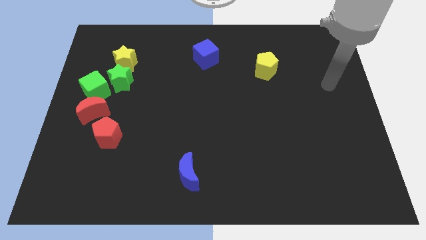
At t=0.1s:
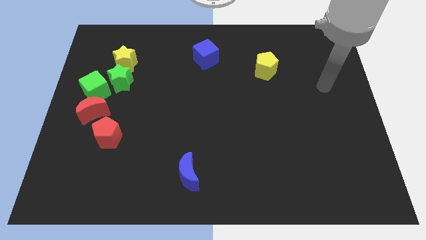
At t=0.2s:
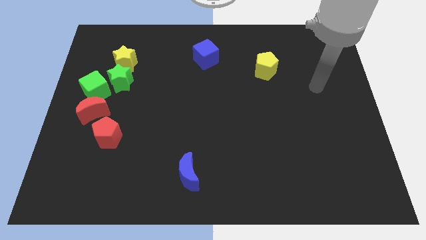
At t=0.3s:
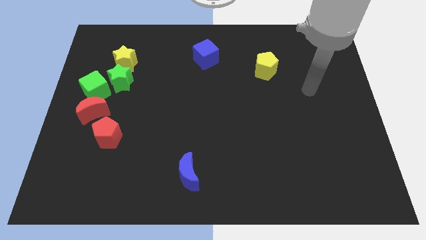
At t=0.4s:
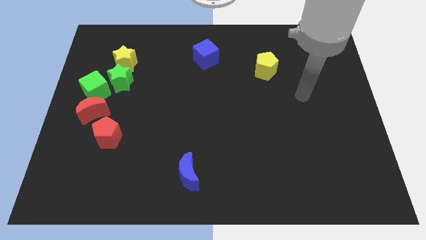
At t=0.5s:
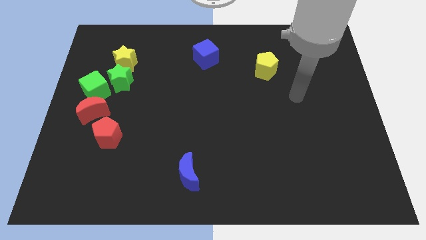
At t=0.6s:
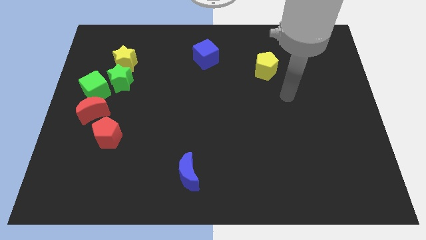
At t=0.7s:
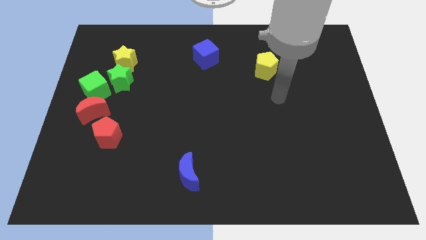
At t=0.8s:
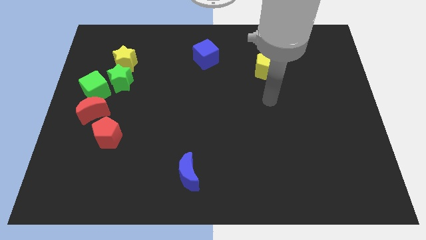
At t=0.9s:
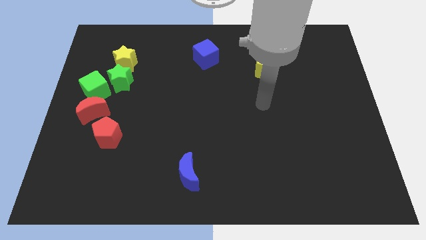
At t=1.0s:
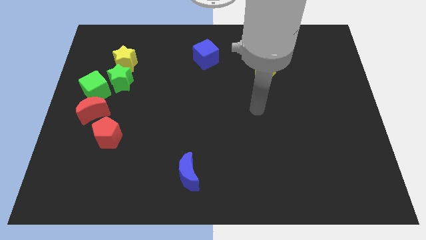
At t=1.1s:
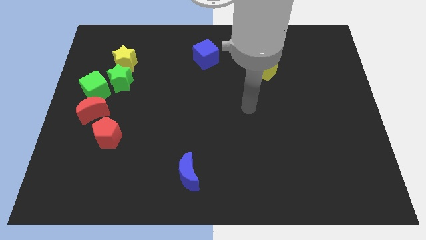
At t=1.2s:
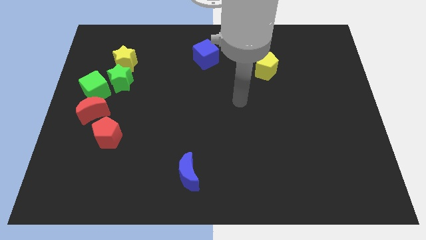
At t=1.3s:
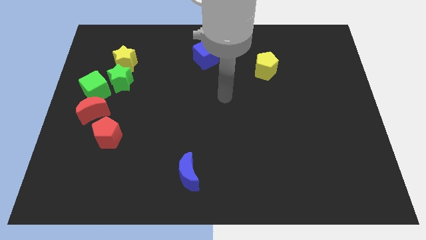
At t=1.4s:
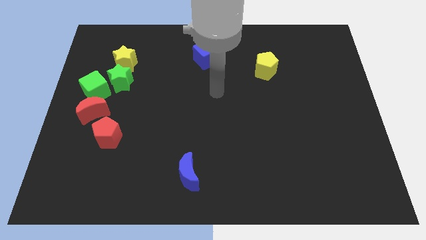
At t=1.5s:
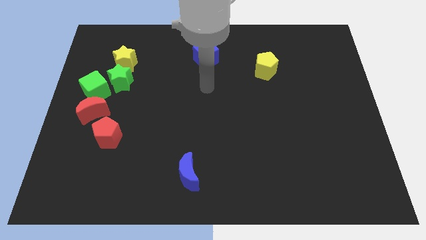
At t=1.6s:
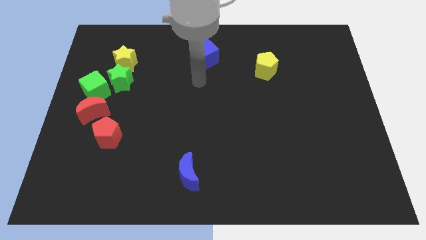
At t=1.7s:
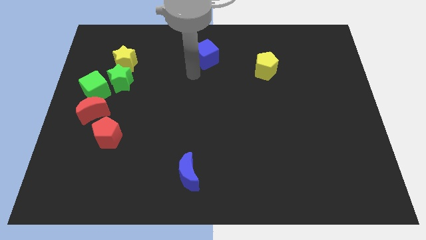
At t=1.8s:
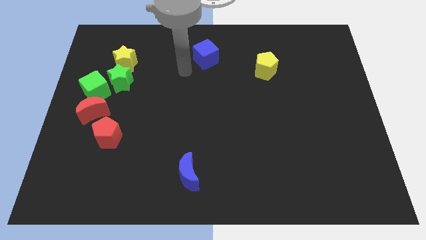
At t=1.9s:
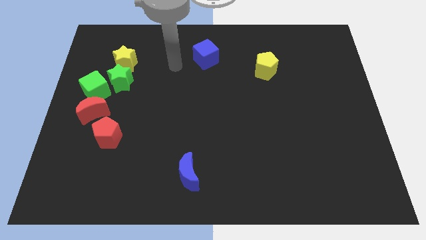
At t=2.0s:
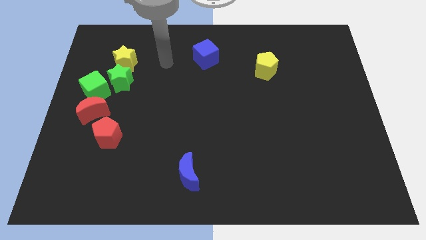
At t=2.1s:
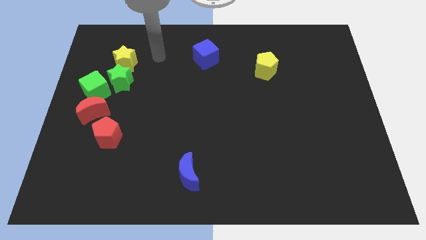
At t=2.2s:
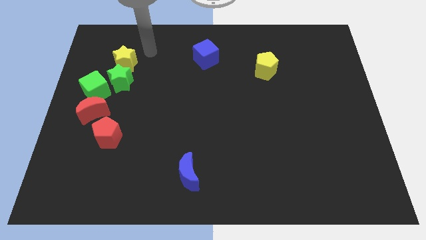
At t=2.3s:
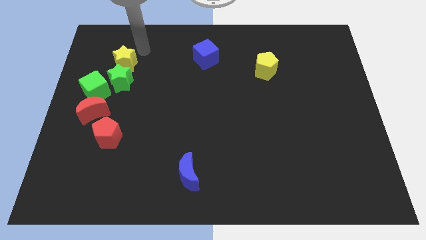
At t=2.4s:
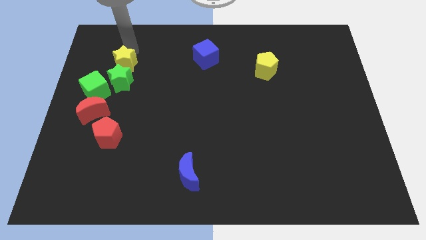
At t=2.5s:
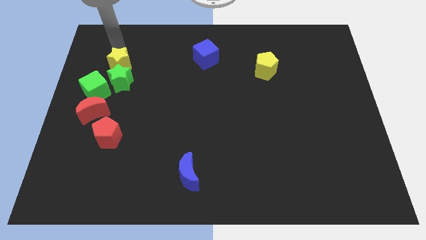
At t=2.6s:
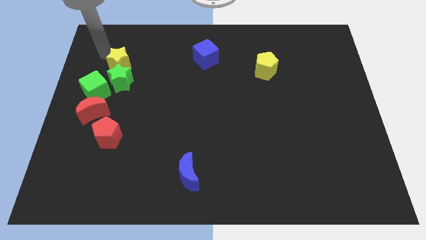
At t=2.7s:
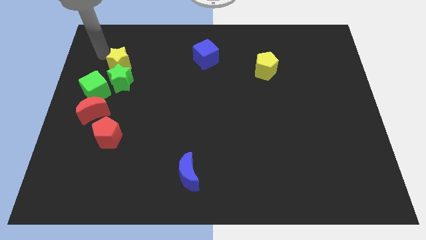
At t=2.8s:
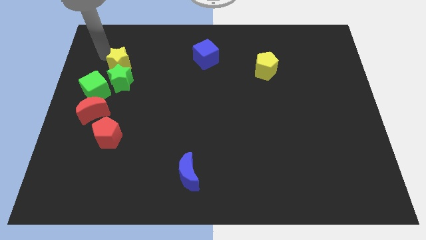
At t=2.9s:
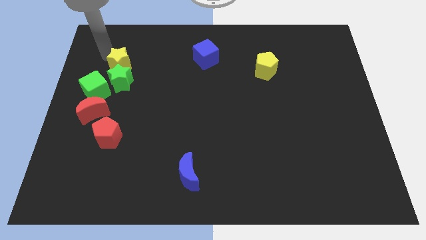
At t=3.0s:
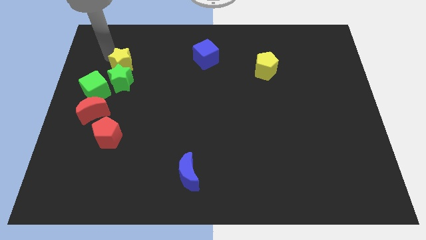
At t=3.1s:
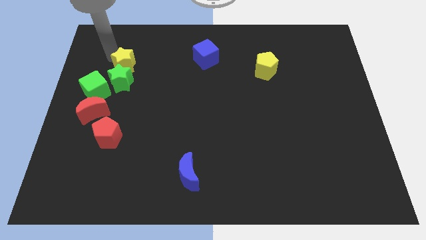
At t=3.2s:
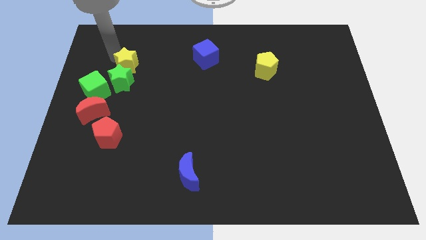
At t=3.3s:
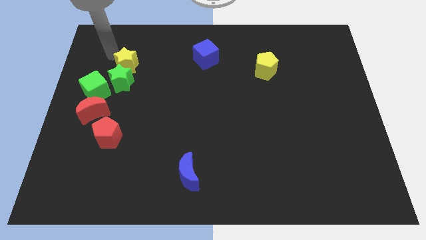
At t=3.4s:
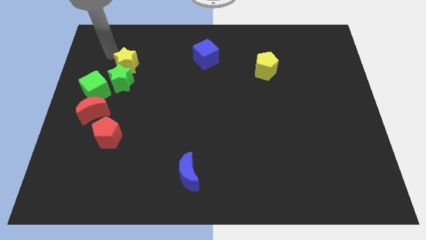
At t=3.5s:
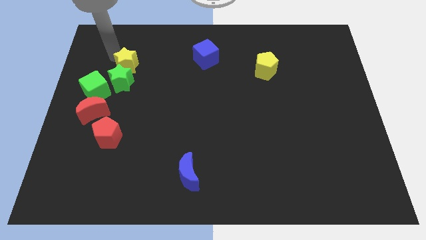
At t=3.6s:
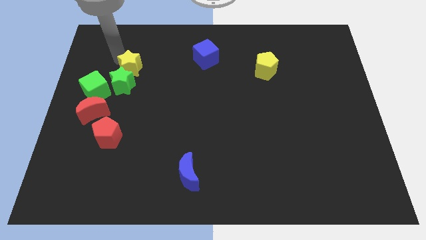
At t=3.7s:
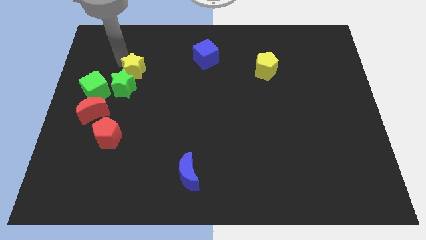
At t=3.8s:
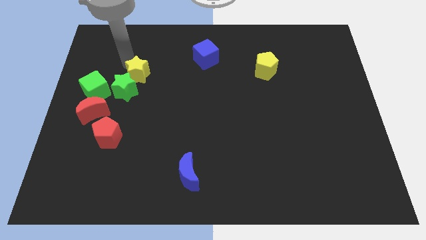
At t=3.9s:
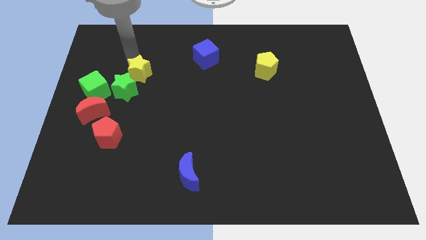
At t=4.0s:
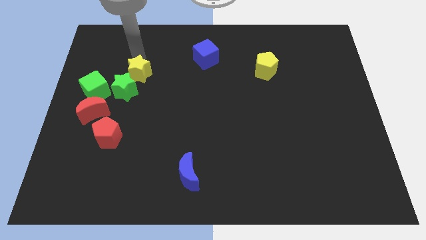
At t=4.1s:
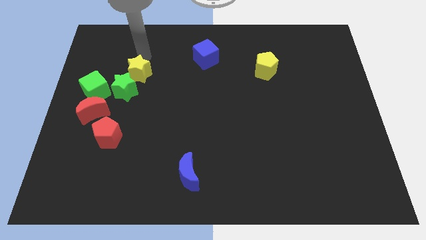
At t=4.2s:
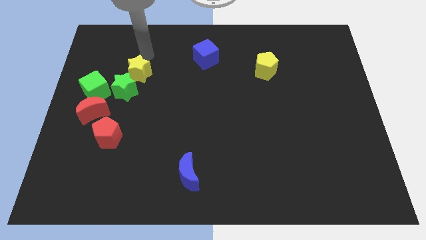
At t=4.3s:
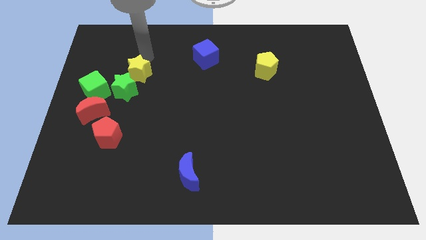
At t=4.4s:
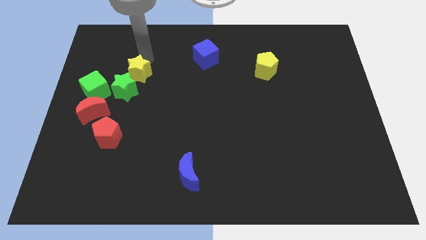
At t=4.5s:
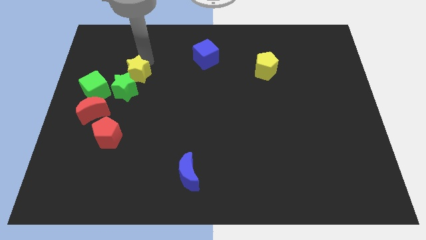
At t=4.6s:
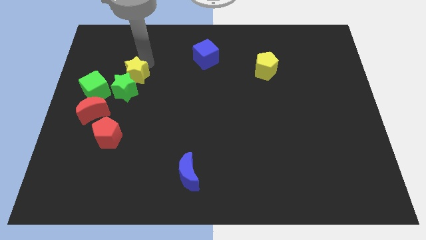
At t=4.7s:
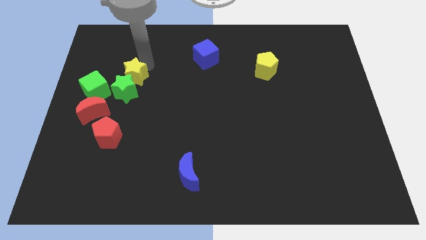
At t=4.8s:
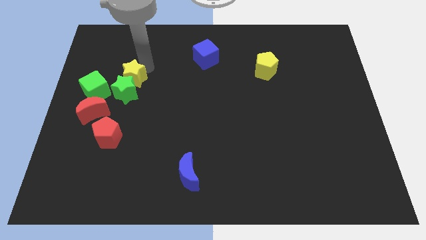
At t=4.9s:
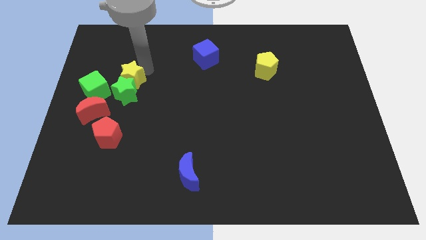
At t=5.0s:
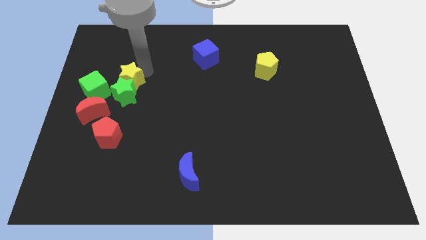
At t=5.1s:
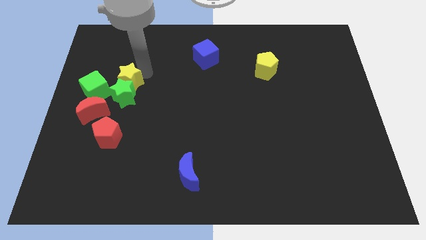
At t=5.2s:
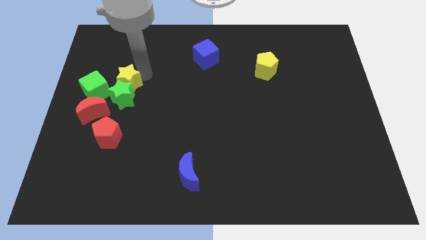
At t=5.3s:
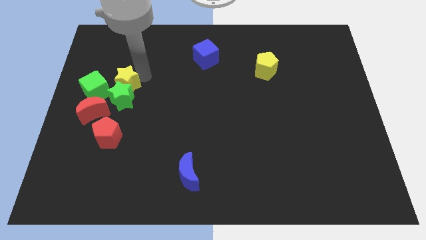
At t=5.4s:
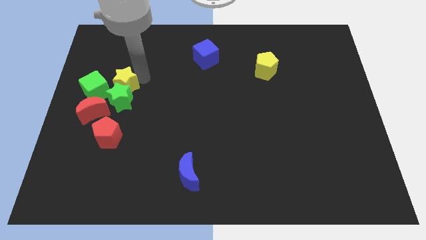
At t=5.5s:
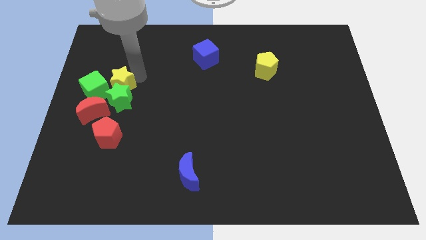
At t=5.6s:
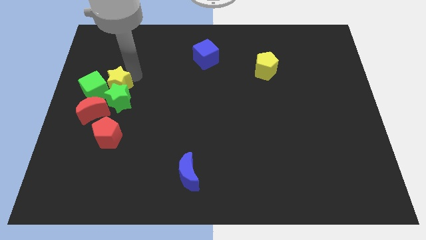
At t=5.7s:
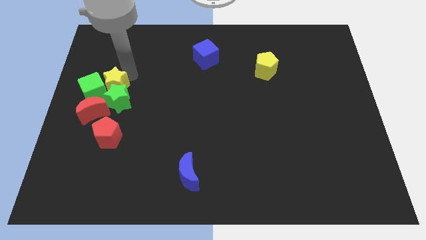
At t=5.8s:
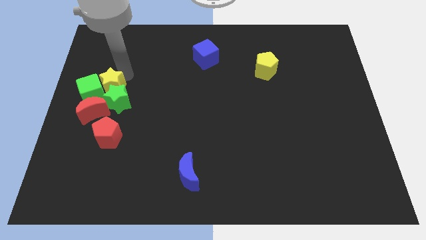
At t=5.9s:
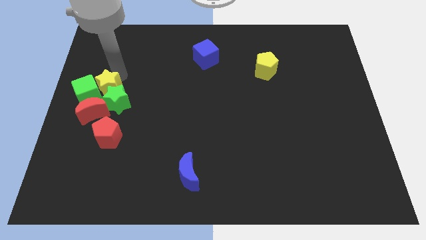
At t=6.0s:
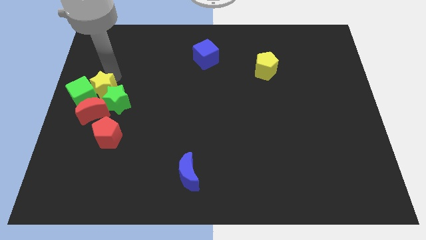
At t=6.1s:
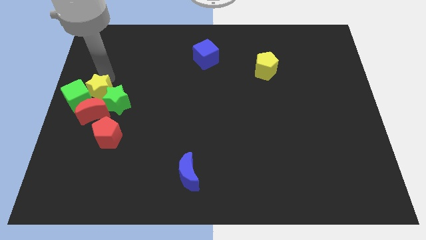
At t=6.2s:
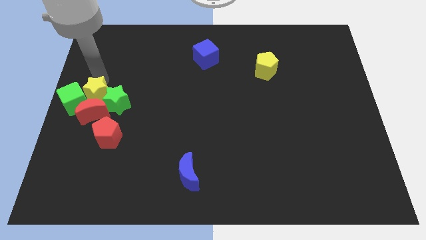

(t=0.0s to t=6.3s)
put the yellow star close to the red moon
